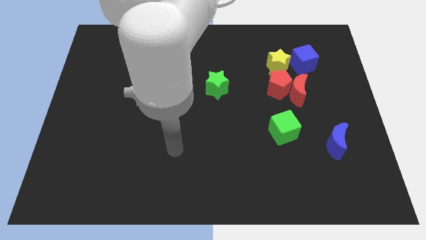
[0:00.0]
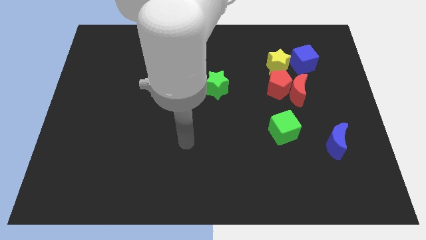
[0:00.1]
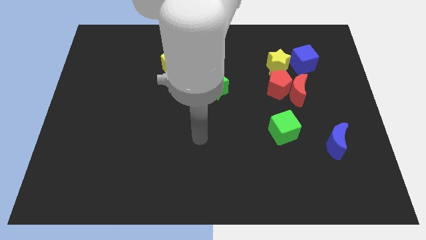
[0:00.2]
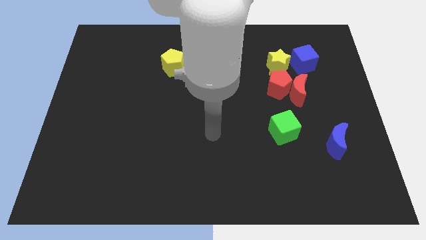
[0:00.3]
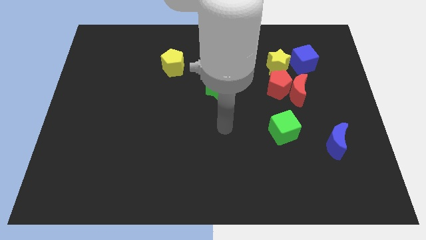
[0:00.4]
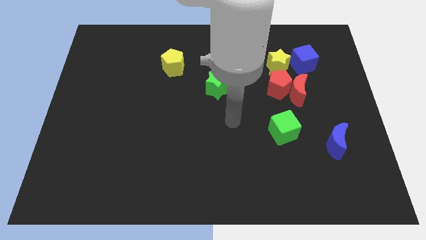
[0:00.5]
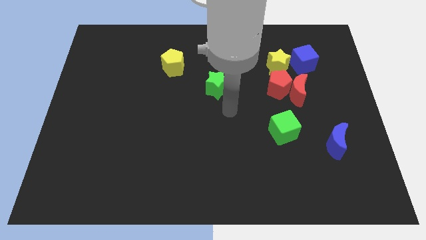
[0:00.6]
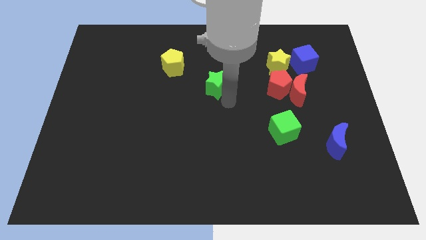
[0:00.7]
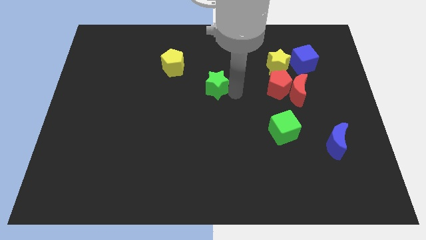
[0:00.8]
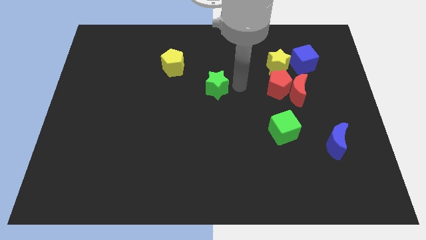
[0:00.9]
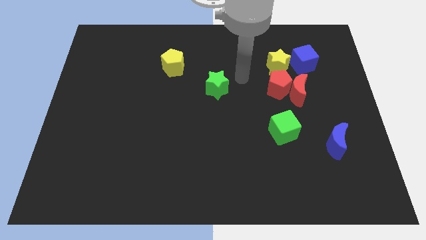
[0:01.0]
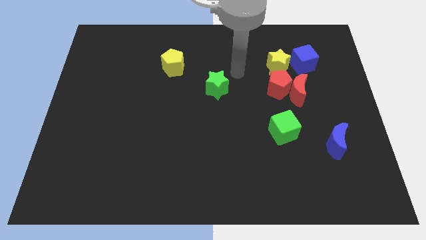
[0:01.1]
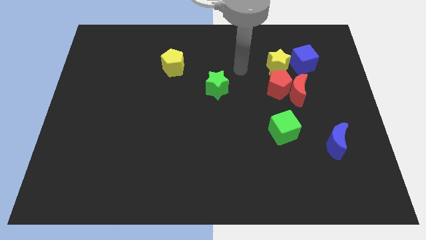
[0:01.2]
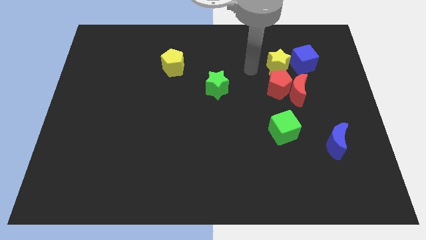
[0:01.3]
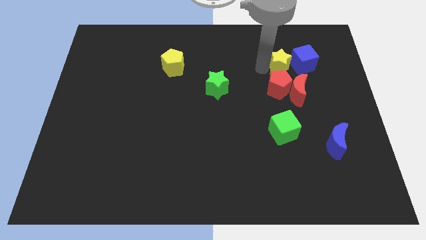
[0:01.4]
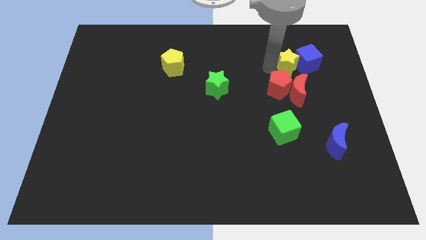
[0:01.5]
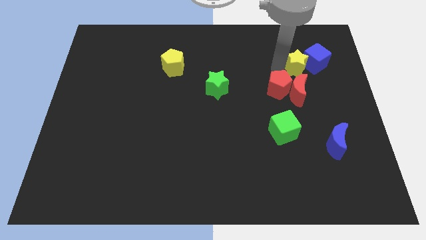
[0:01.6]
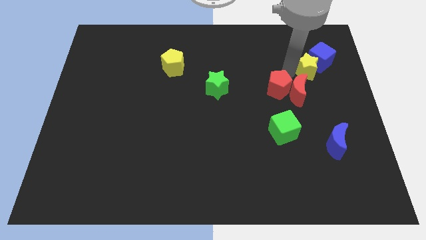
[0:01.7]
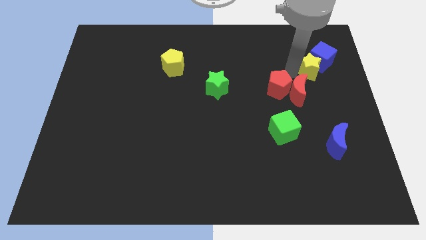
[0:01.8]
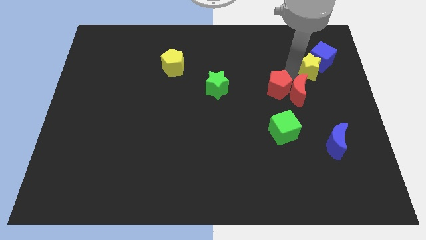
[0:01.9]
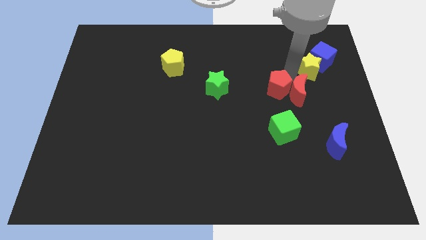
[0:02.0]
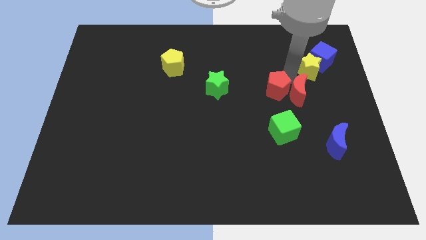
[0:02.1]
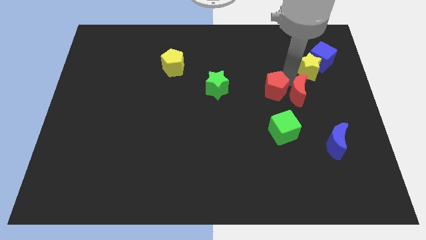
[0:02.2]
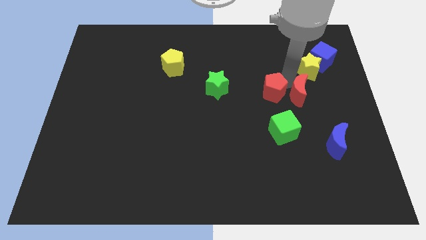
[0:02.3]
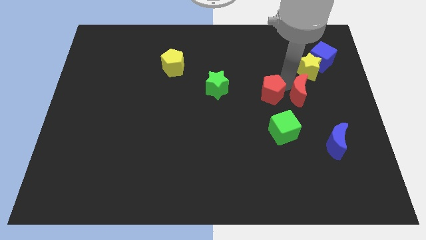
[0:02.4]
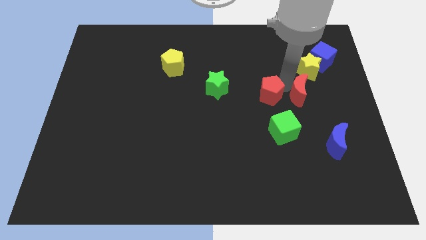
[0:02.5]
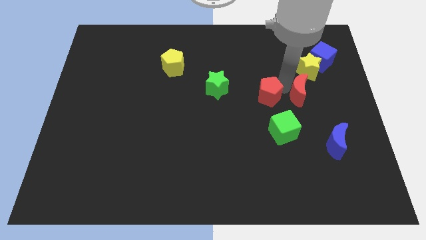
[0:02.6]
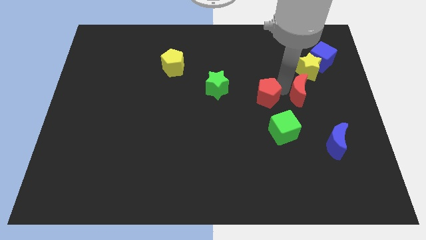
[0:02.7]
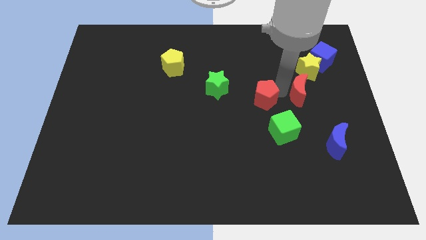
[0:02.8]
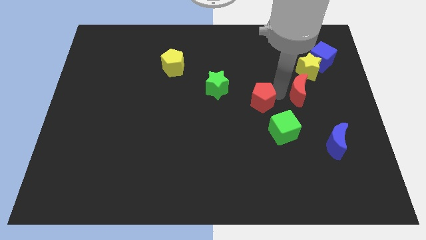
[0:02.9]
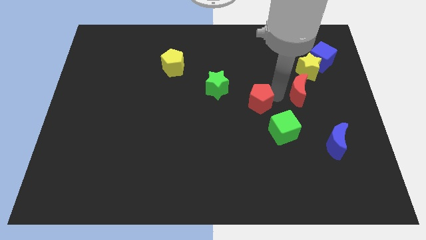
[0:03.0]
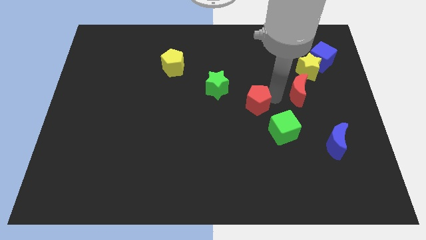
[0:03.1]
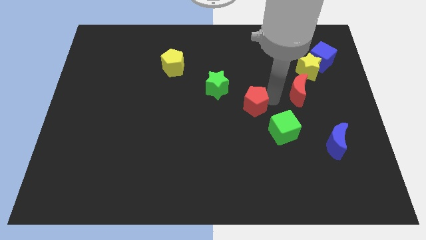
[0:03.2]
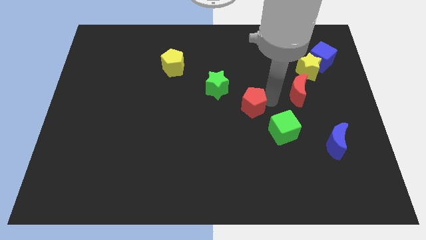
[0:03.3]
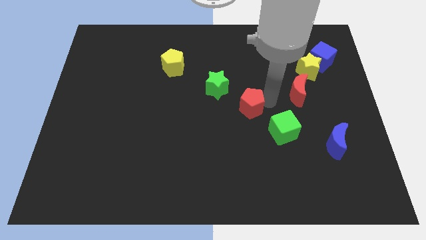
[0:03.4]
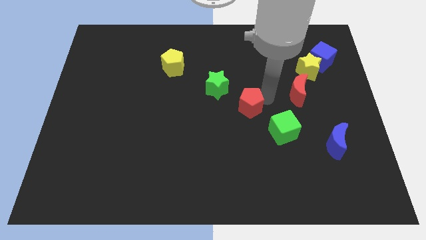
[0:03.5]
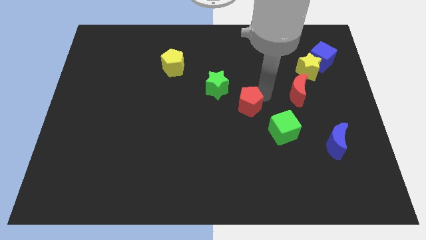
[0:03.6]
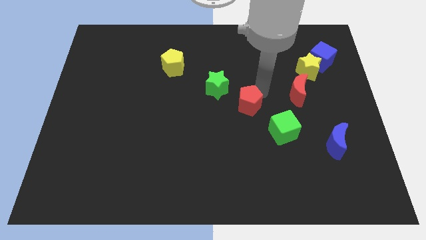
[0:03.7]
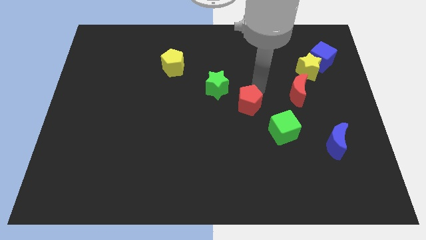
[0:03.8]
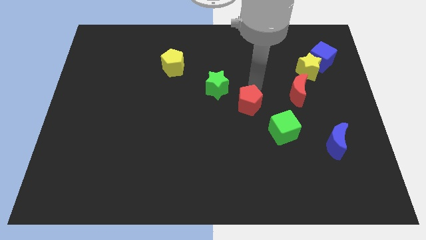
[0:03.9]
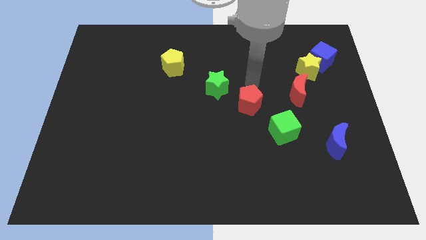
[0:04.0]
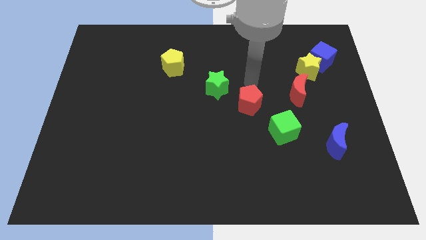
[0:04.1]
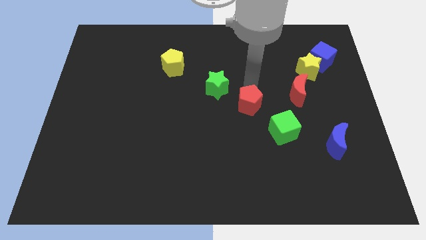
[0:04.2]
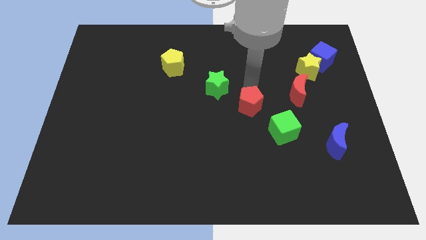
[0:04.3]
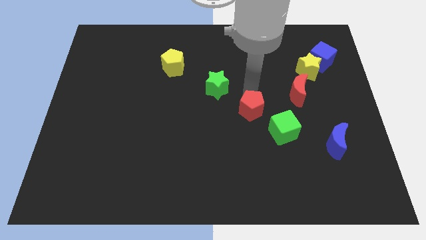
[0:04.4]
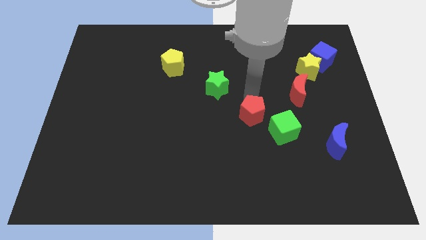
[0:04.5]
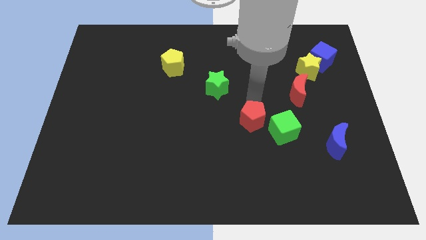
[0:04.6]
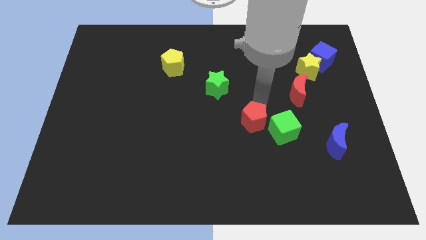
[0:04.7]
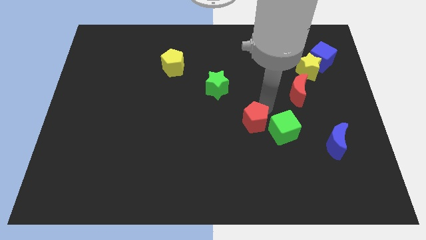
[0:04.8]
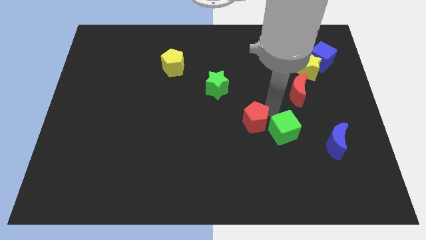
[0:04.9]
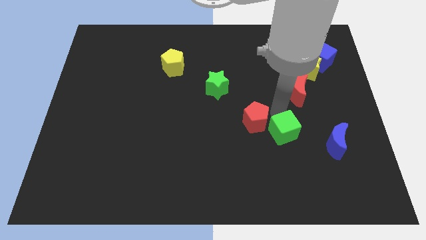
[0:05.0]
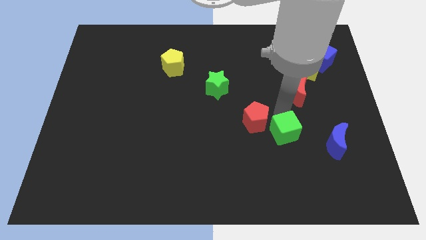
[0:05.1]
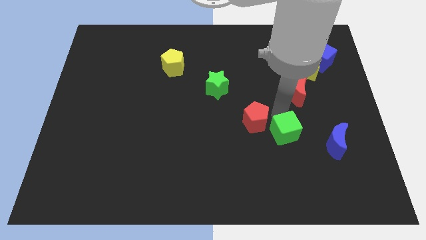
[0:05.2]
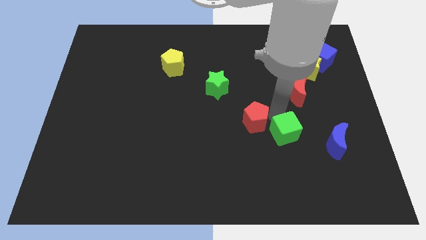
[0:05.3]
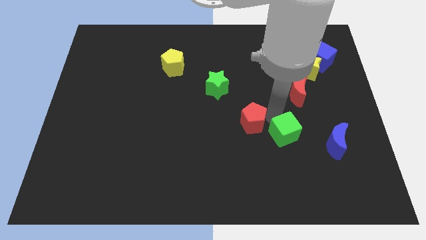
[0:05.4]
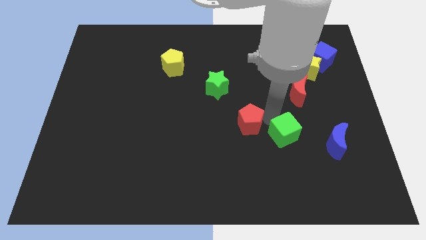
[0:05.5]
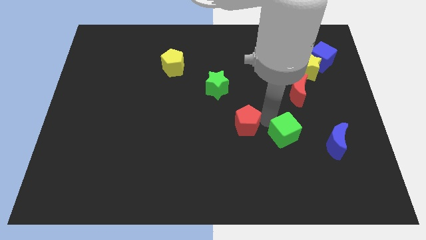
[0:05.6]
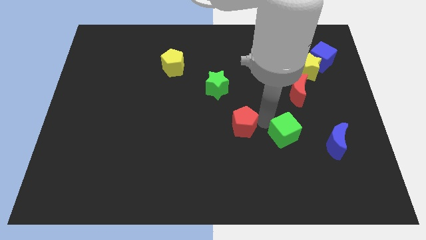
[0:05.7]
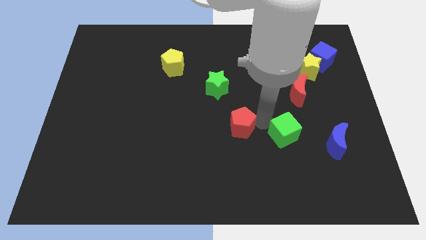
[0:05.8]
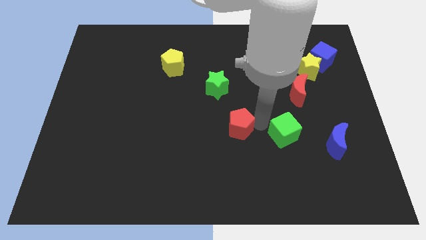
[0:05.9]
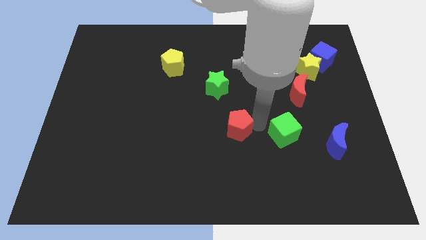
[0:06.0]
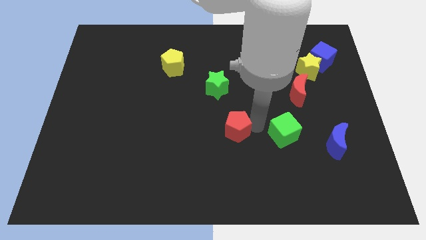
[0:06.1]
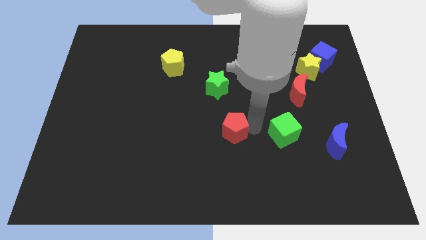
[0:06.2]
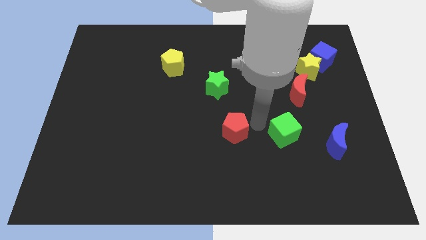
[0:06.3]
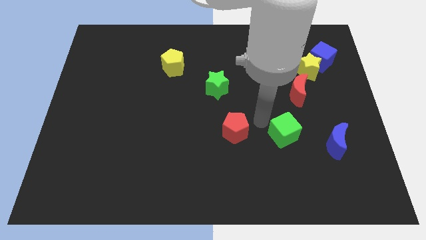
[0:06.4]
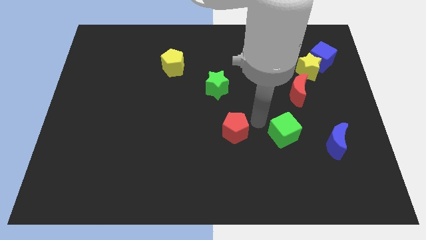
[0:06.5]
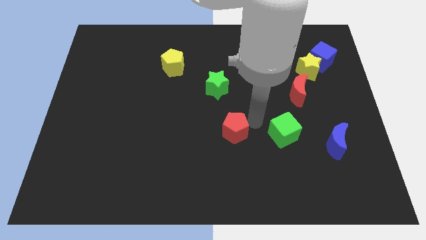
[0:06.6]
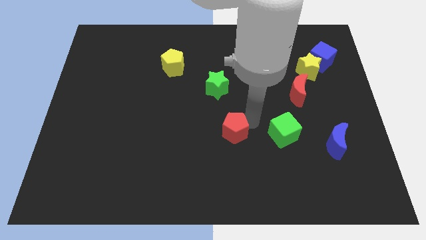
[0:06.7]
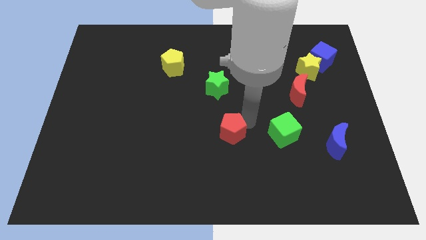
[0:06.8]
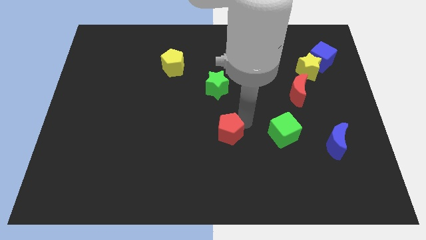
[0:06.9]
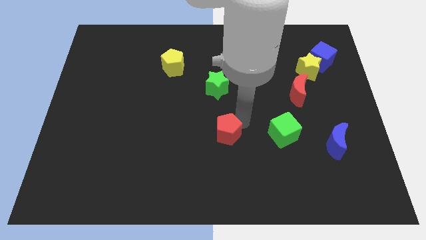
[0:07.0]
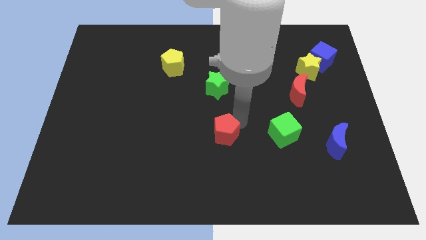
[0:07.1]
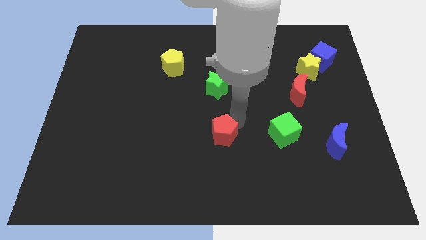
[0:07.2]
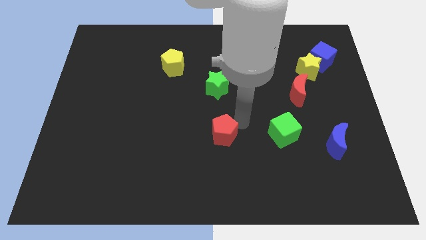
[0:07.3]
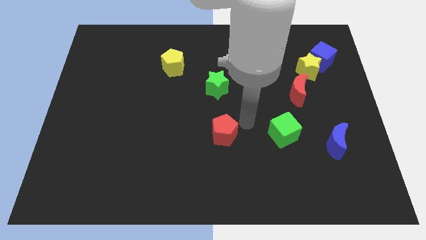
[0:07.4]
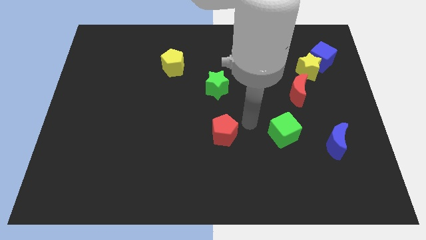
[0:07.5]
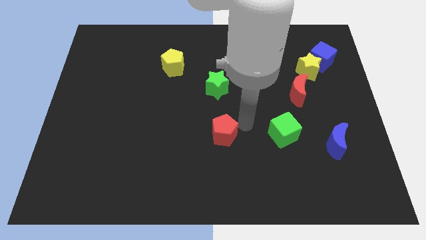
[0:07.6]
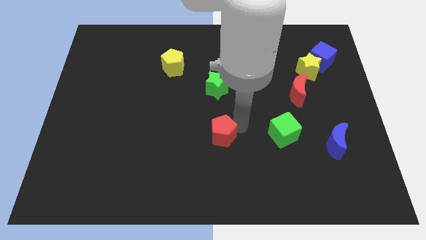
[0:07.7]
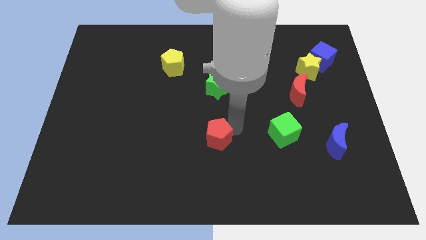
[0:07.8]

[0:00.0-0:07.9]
move the red pentagon diagonally down and to the left

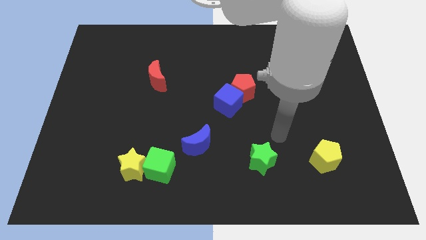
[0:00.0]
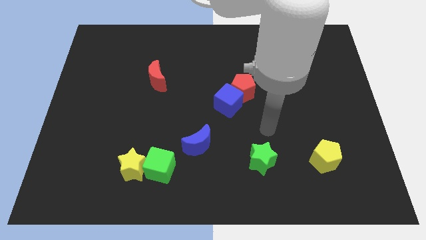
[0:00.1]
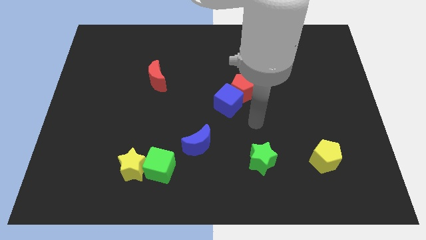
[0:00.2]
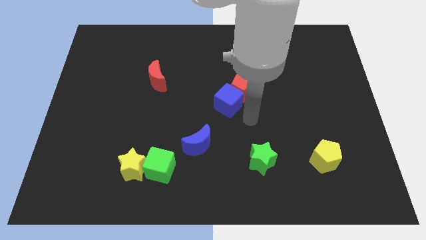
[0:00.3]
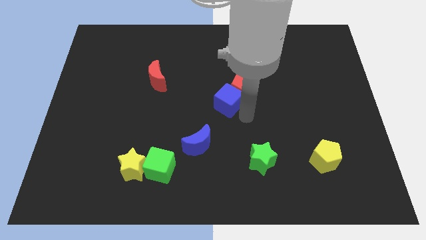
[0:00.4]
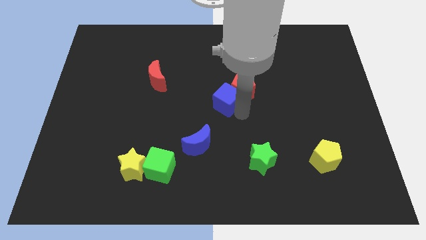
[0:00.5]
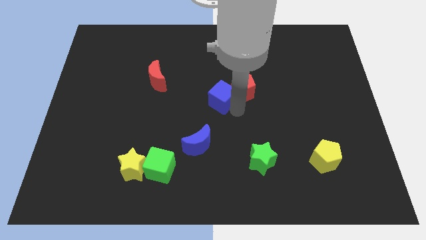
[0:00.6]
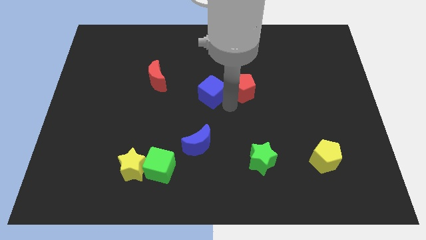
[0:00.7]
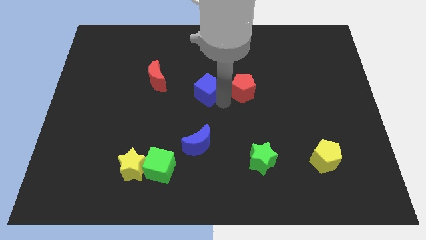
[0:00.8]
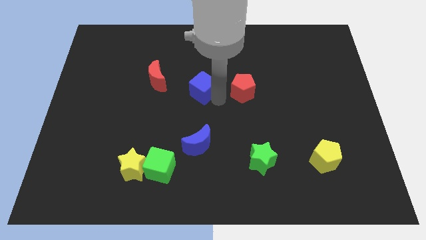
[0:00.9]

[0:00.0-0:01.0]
push the blue cube upwards and left a bit
